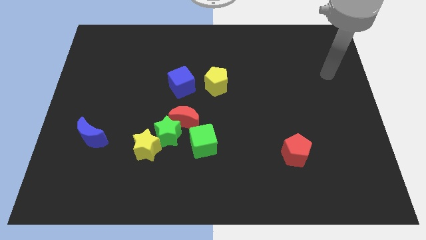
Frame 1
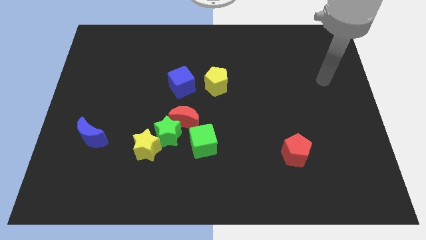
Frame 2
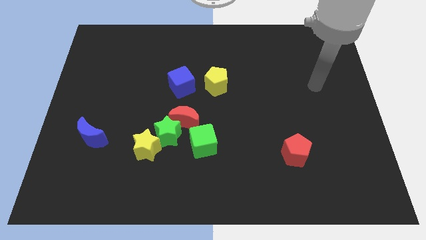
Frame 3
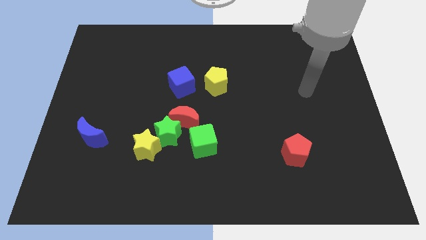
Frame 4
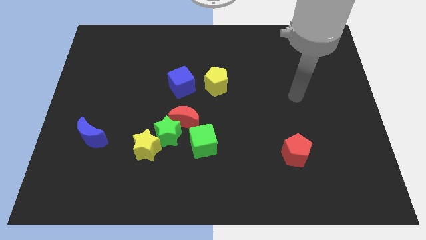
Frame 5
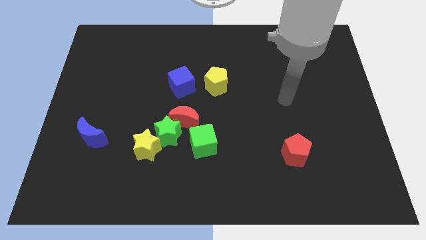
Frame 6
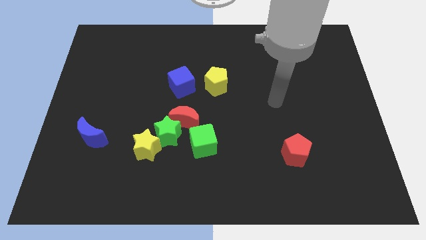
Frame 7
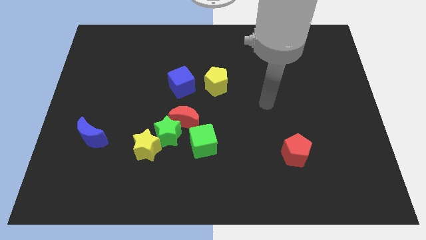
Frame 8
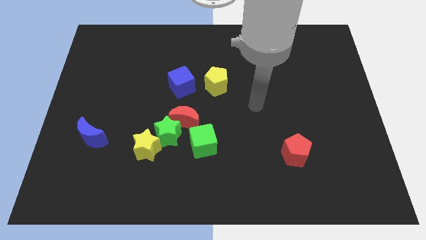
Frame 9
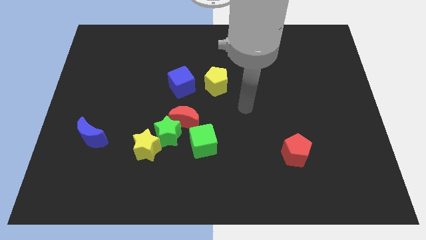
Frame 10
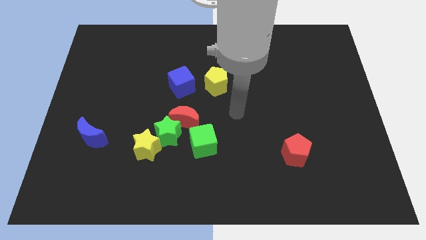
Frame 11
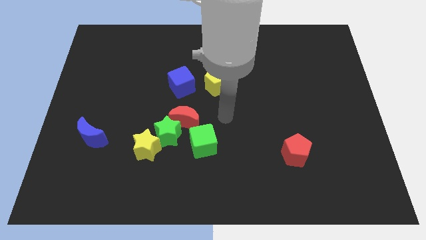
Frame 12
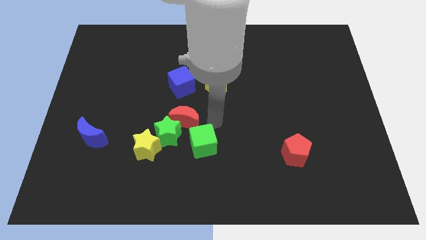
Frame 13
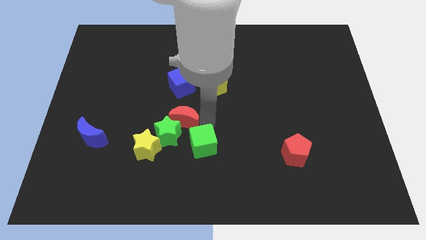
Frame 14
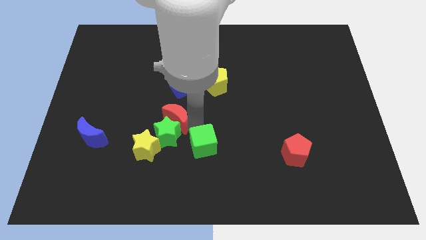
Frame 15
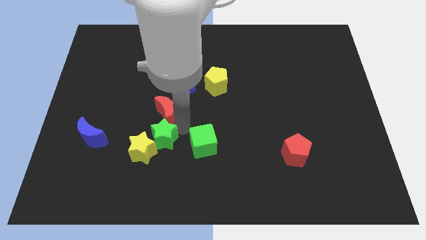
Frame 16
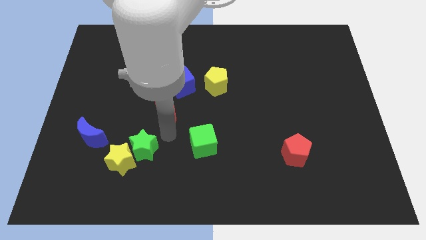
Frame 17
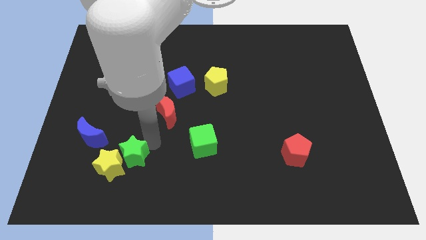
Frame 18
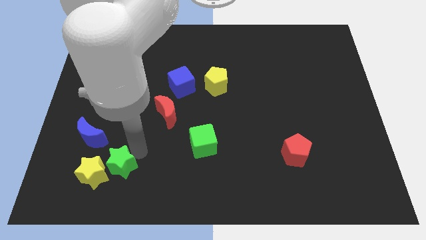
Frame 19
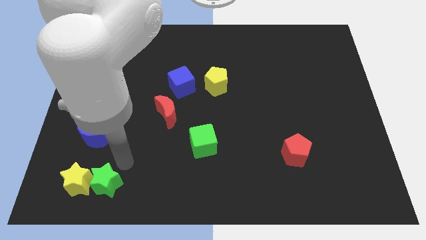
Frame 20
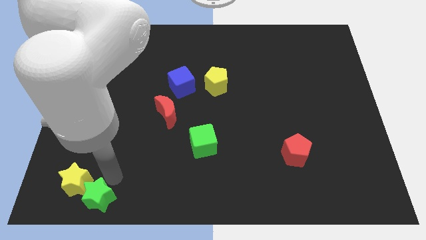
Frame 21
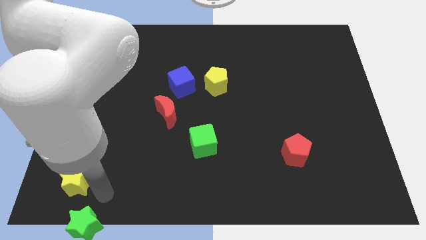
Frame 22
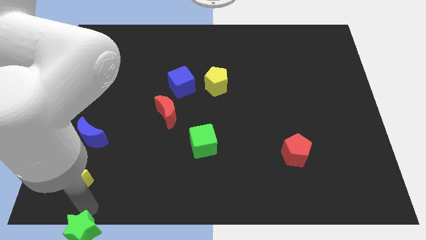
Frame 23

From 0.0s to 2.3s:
separate the yellow star from the green star

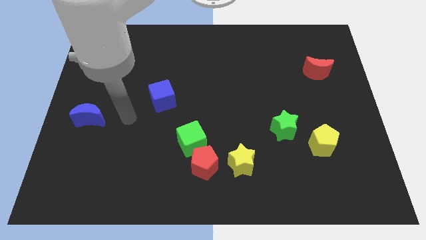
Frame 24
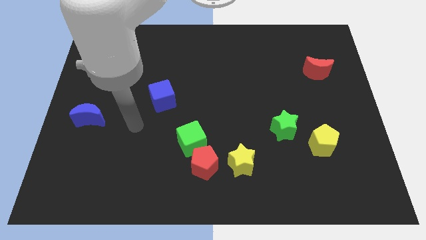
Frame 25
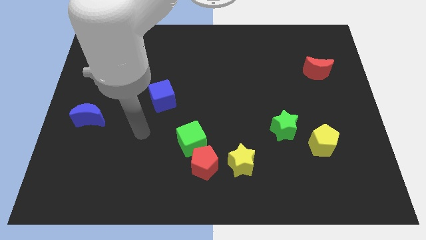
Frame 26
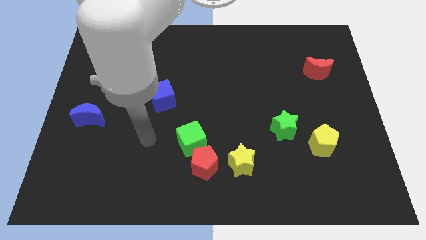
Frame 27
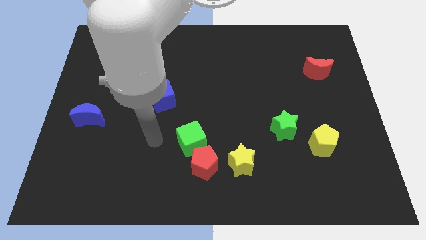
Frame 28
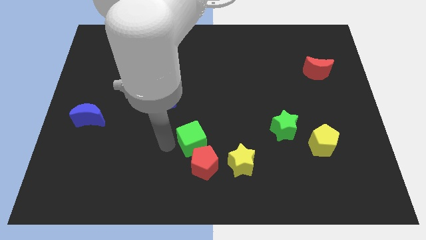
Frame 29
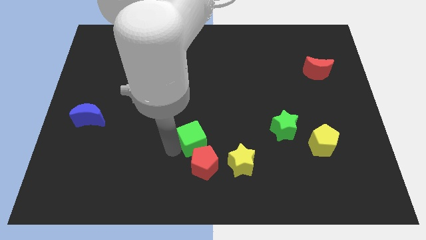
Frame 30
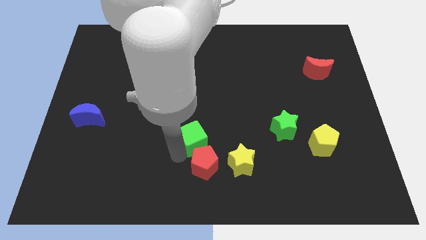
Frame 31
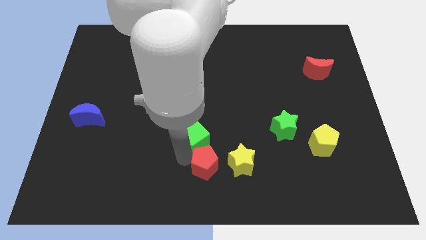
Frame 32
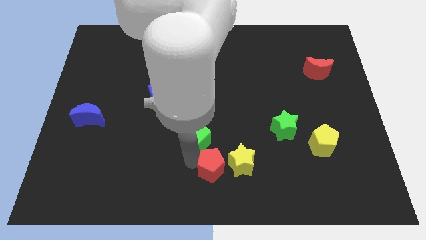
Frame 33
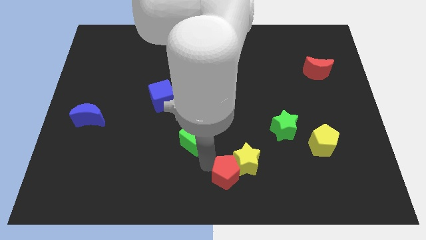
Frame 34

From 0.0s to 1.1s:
separate the green cube from the red pentagon

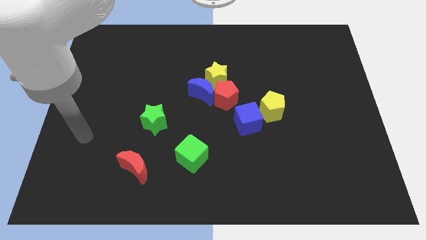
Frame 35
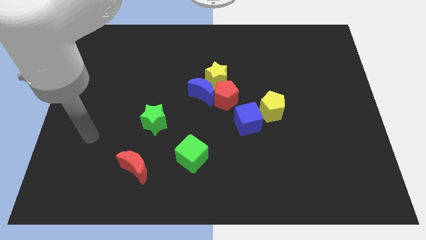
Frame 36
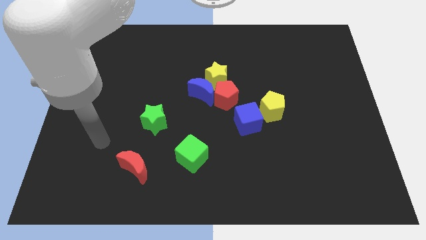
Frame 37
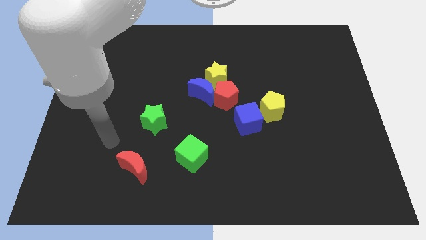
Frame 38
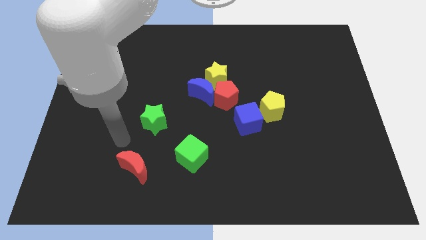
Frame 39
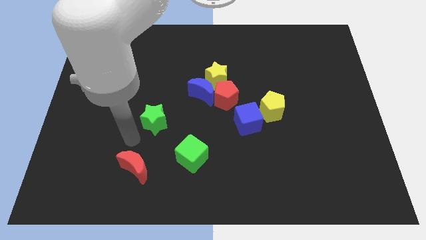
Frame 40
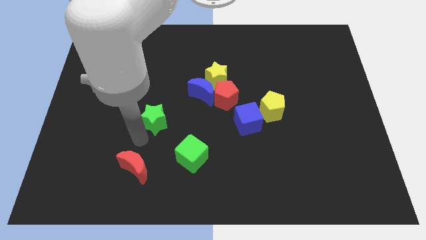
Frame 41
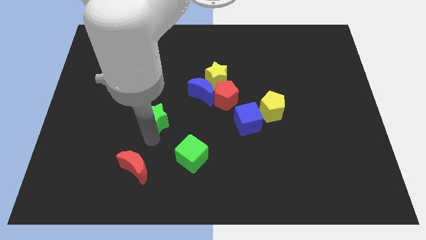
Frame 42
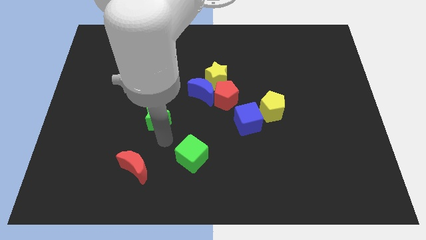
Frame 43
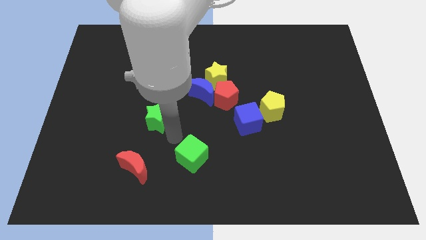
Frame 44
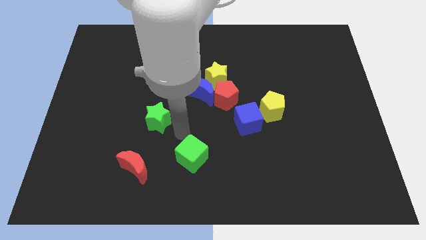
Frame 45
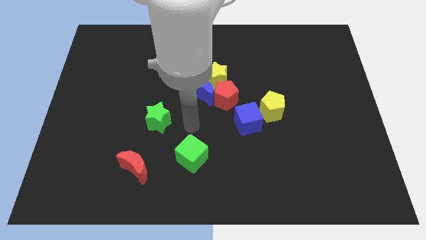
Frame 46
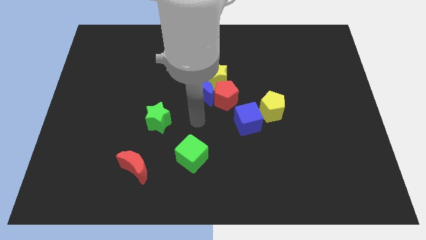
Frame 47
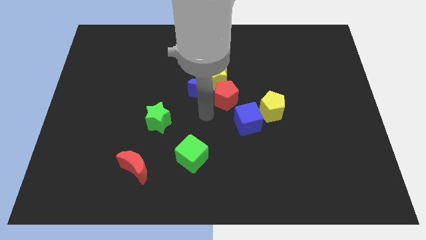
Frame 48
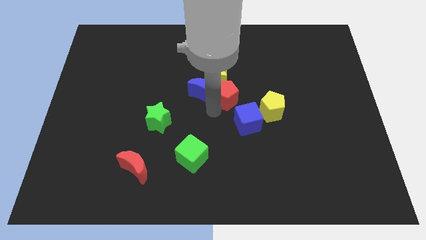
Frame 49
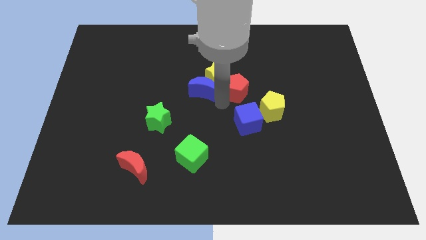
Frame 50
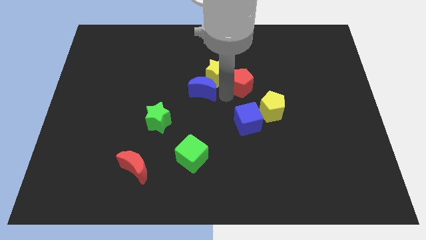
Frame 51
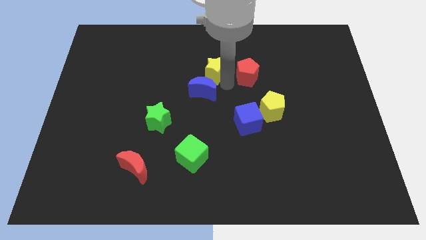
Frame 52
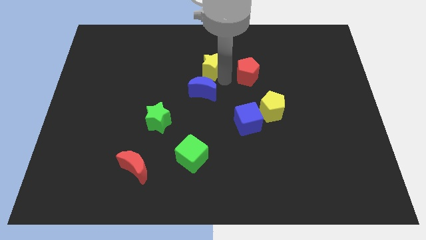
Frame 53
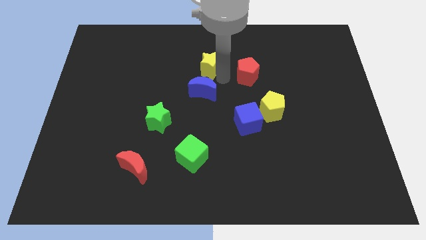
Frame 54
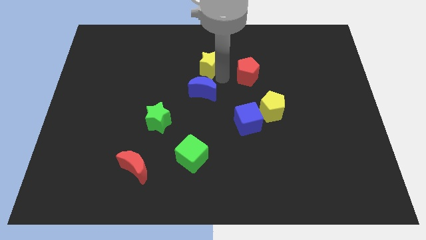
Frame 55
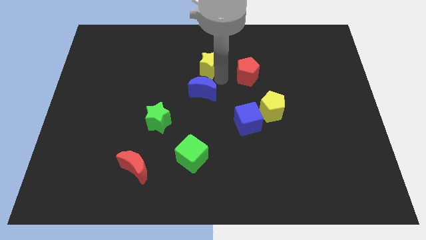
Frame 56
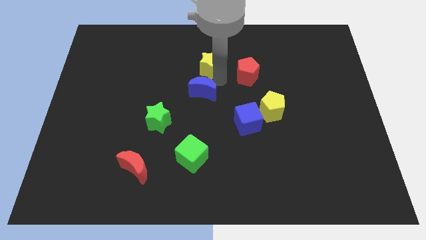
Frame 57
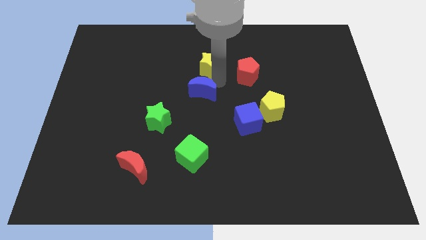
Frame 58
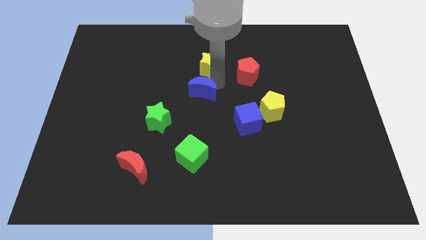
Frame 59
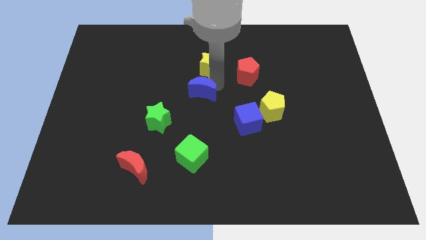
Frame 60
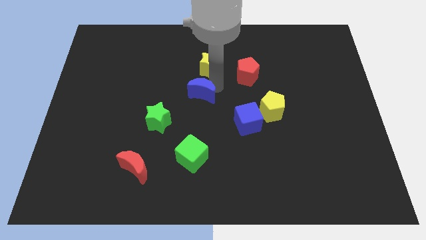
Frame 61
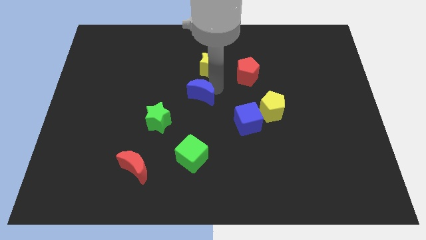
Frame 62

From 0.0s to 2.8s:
move the blue moon away from the red pentagon and yellow star

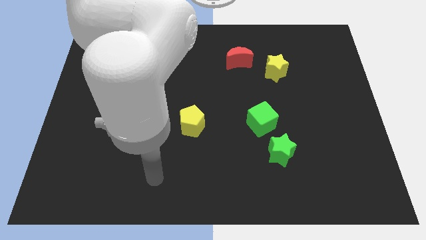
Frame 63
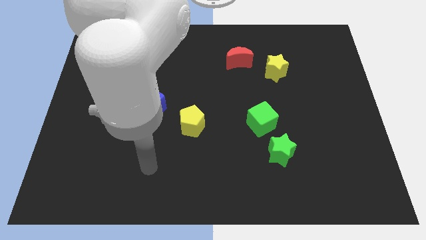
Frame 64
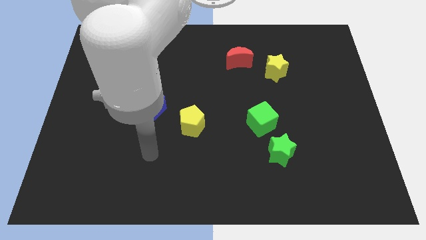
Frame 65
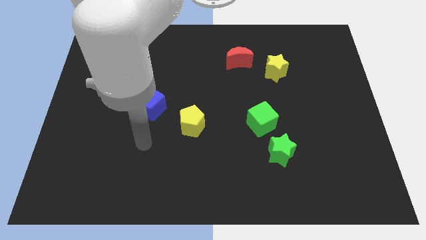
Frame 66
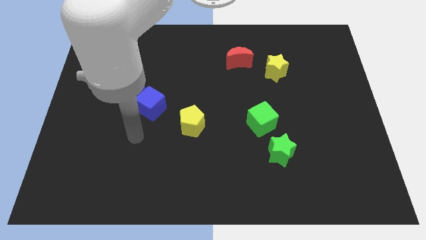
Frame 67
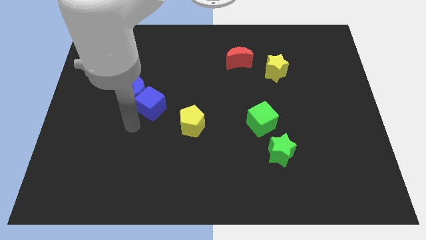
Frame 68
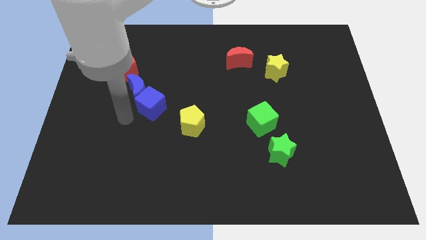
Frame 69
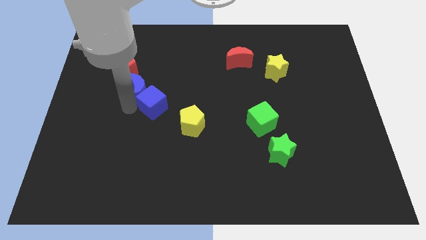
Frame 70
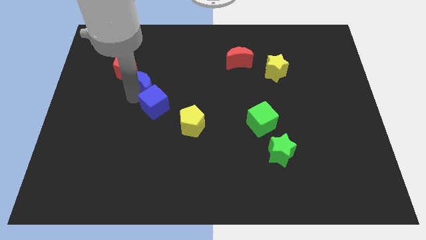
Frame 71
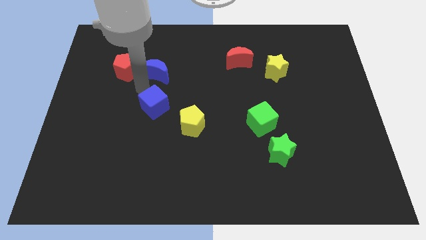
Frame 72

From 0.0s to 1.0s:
separate the blue cube from the blue moon

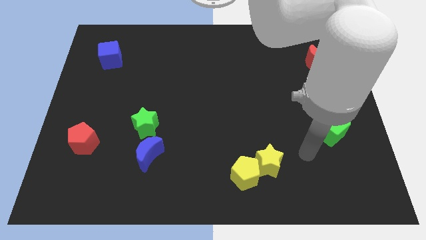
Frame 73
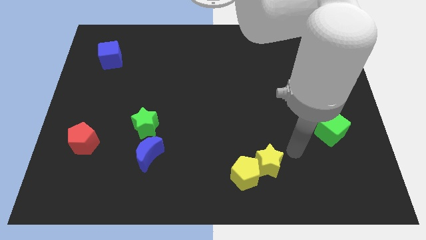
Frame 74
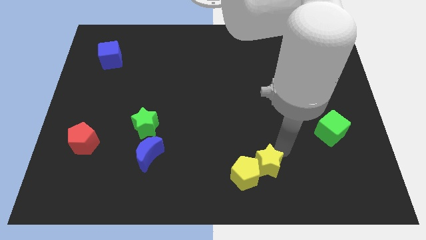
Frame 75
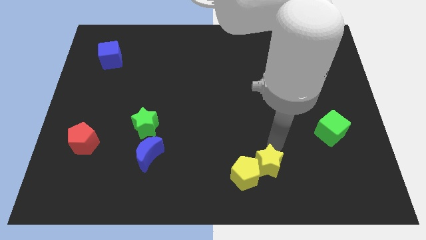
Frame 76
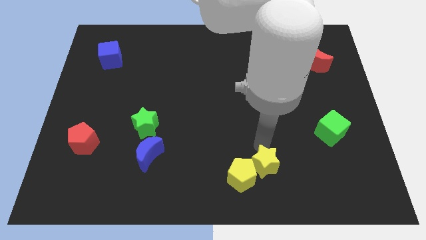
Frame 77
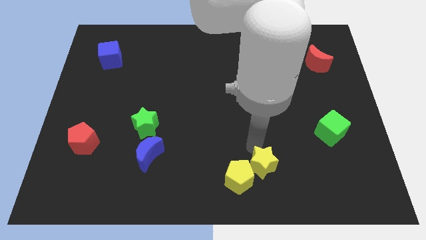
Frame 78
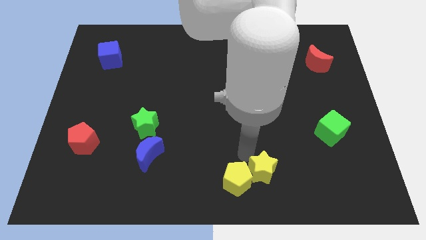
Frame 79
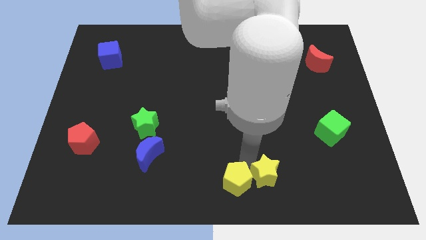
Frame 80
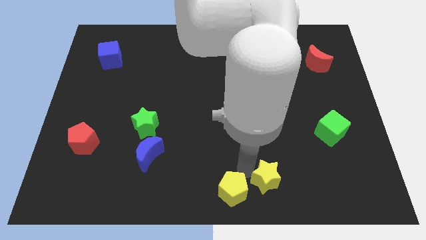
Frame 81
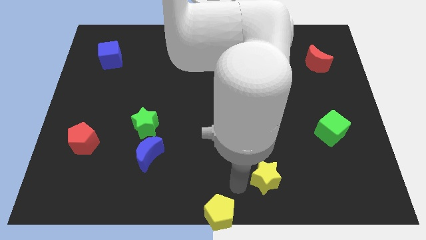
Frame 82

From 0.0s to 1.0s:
move the yellow star away from the yellow pentagon

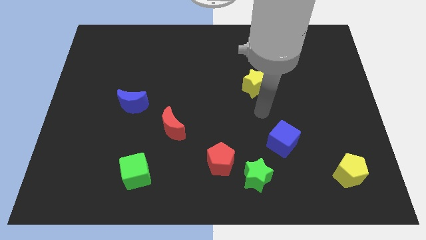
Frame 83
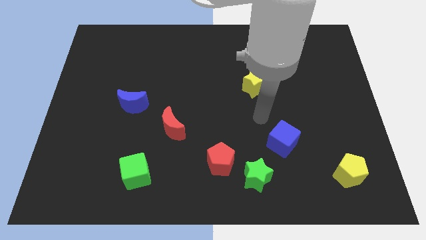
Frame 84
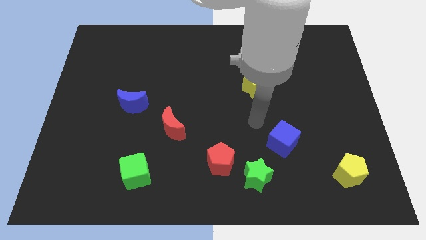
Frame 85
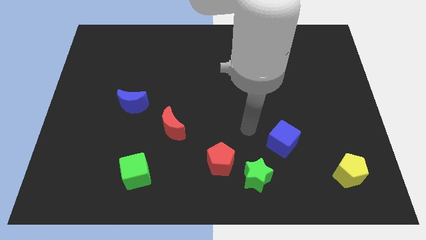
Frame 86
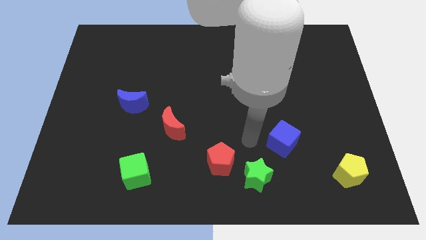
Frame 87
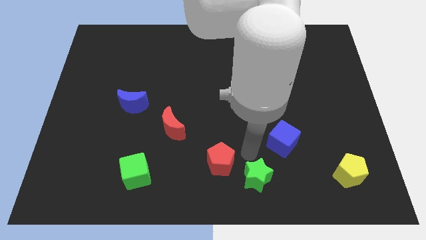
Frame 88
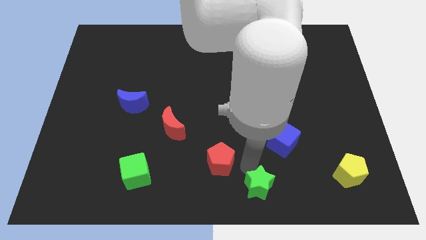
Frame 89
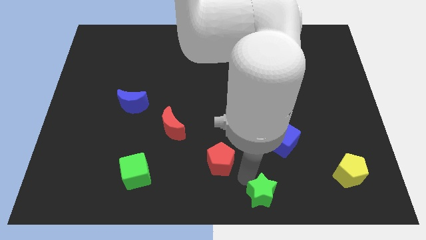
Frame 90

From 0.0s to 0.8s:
pull the red pentagon apart from the green star

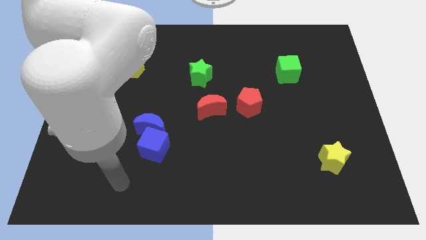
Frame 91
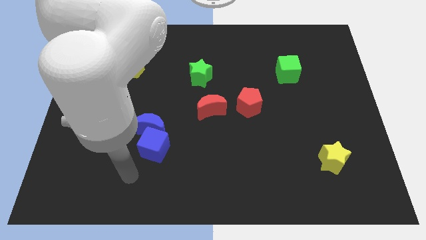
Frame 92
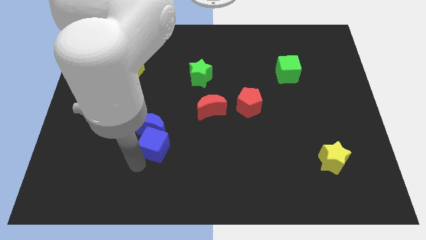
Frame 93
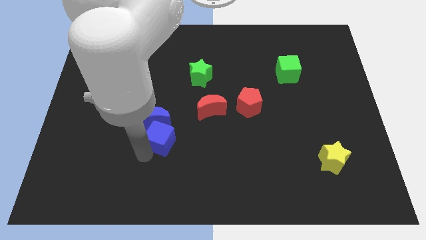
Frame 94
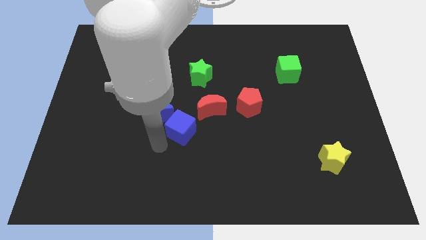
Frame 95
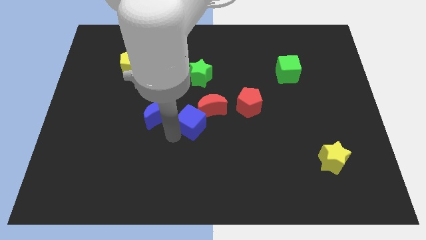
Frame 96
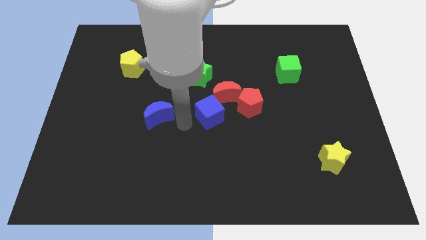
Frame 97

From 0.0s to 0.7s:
move the blue moon away from the blue cube
